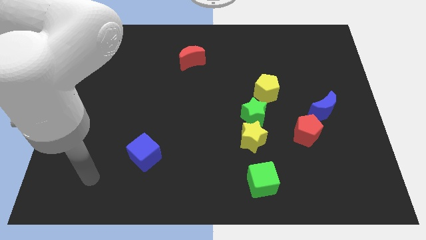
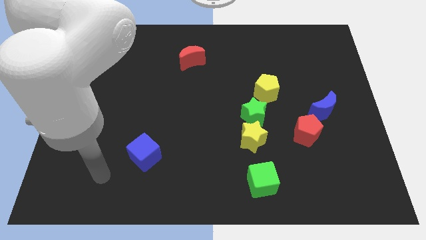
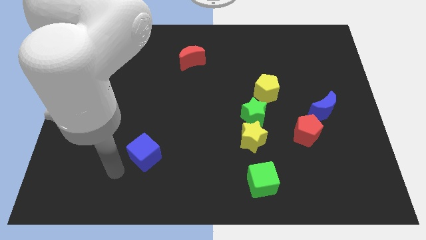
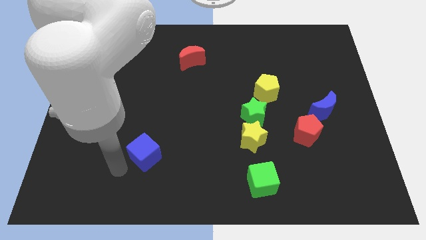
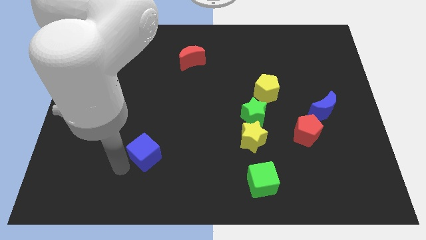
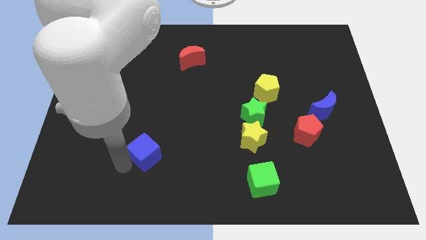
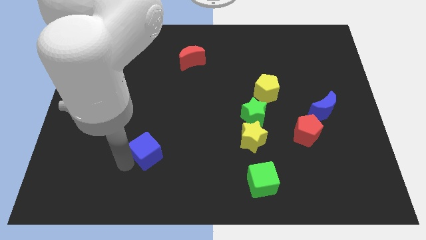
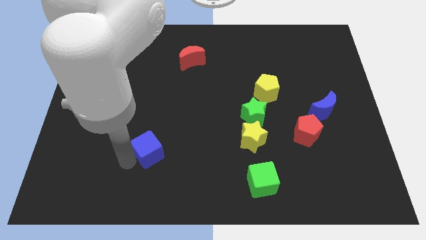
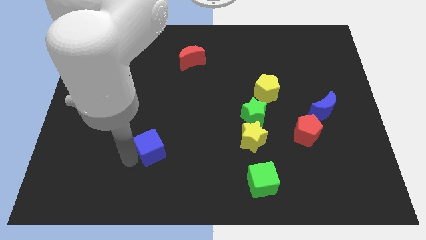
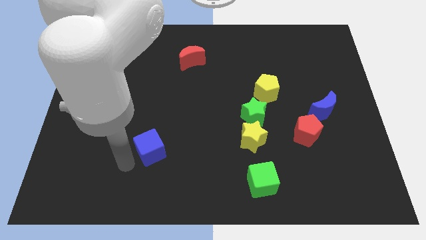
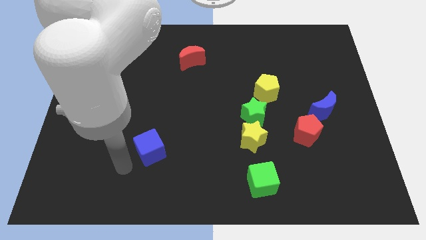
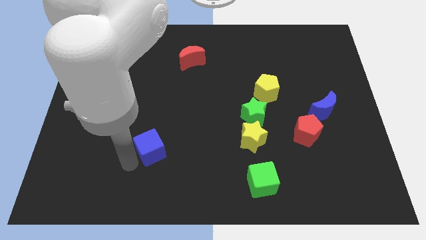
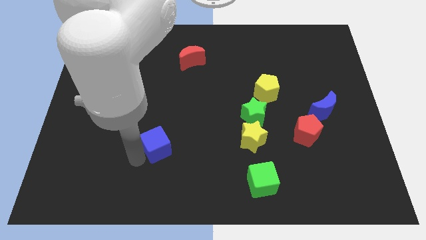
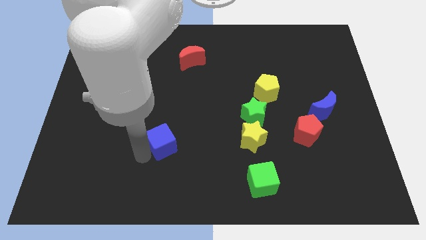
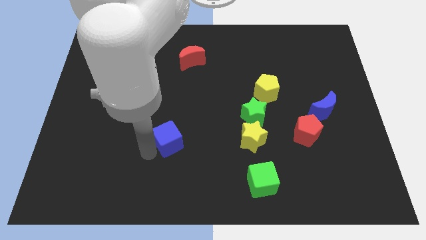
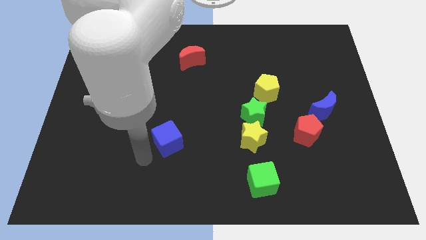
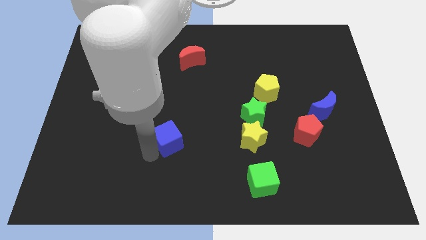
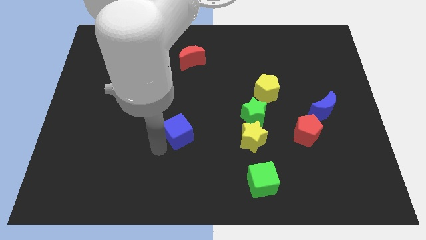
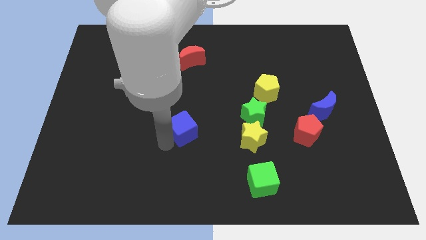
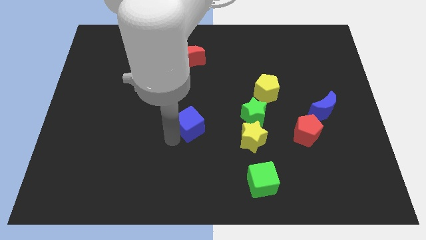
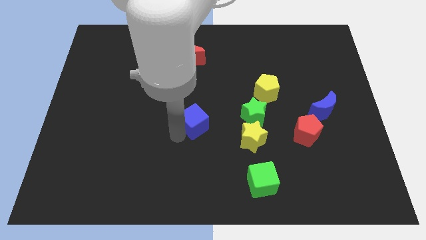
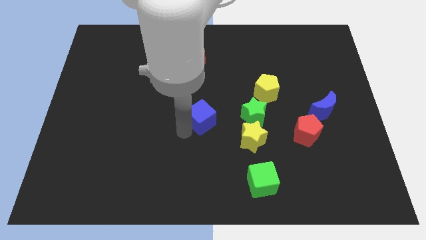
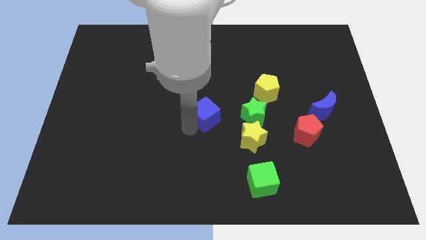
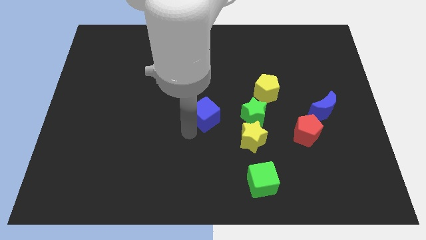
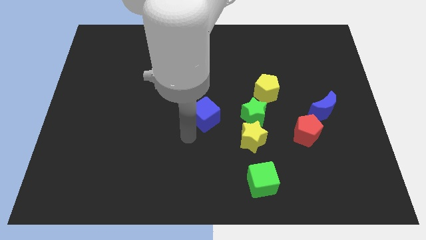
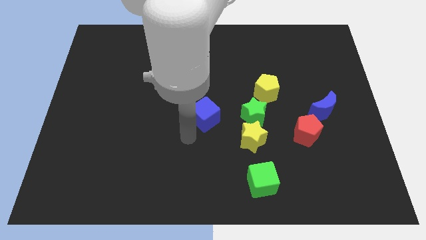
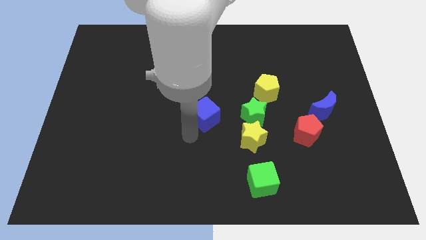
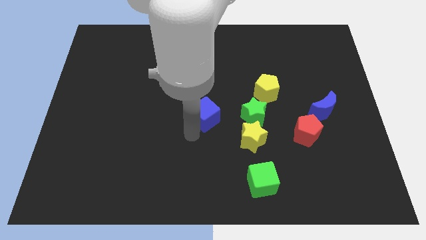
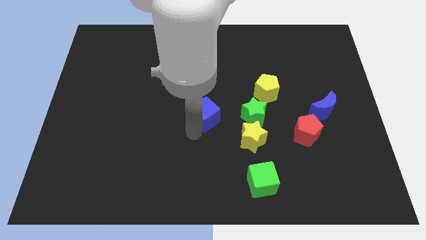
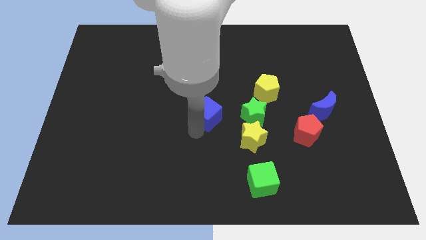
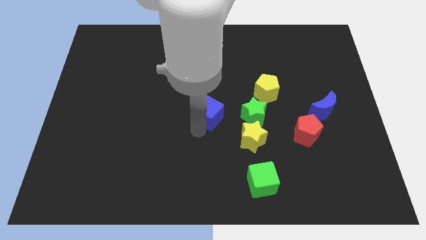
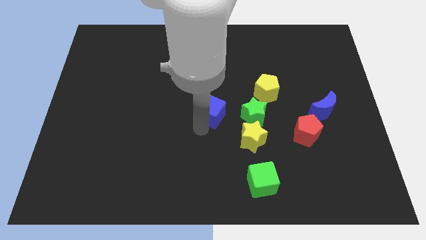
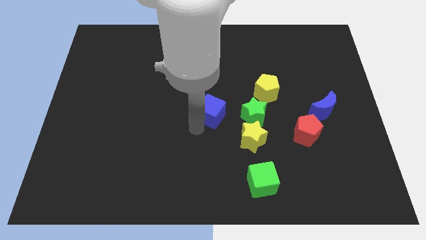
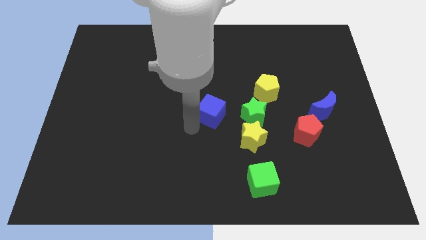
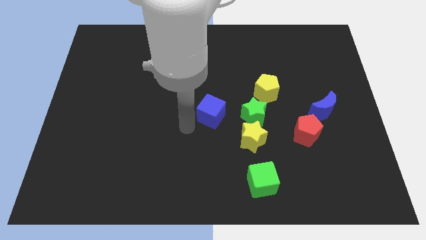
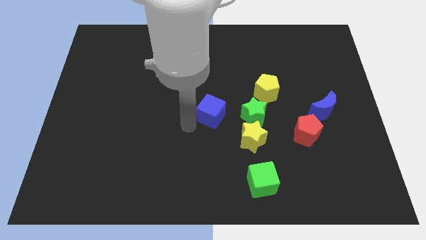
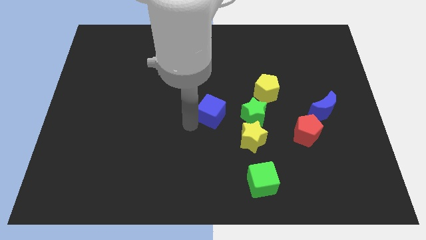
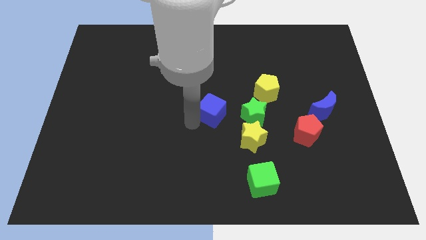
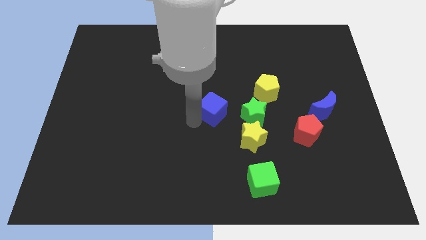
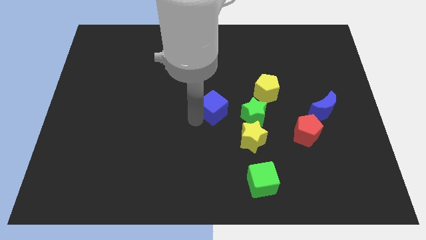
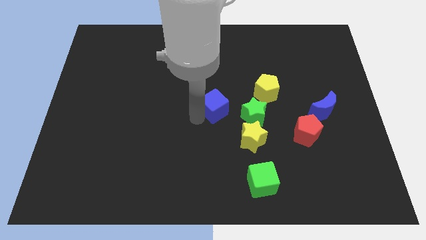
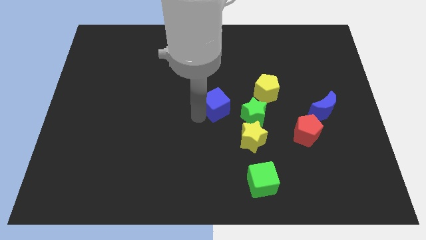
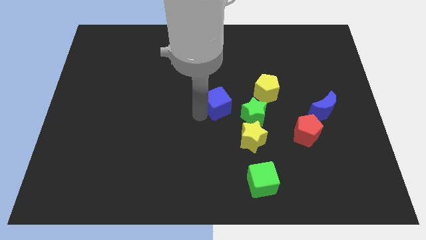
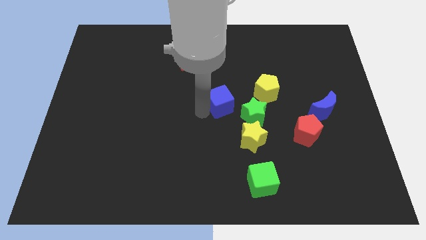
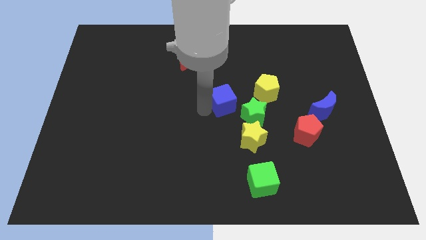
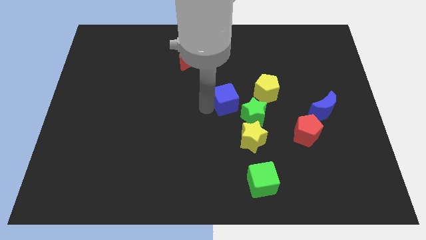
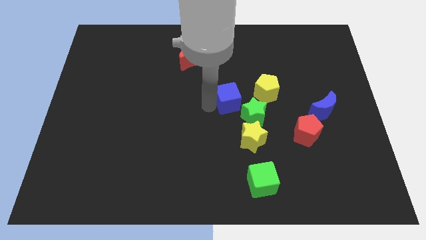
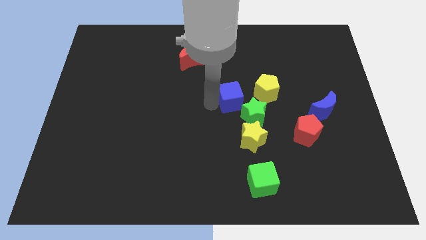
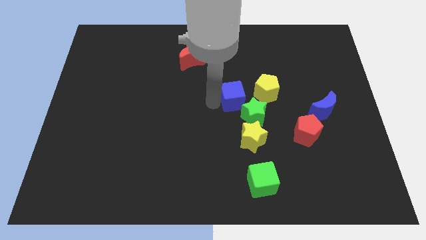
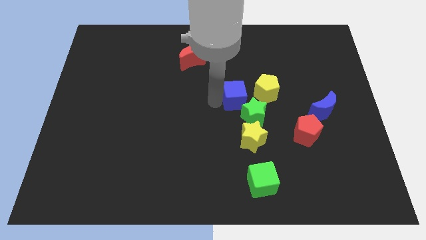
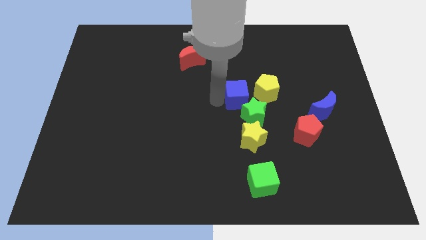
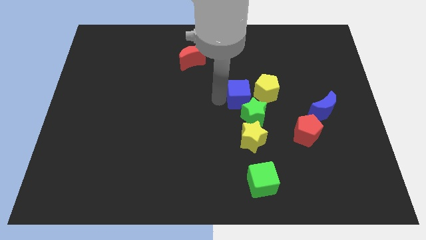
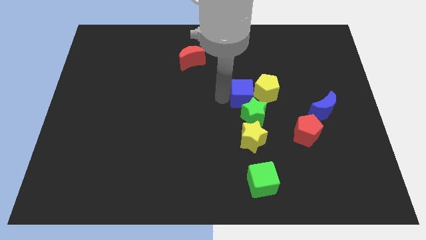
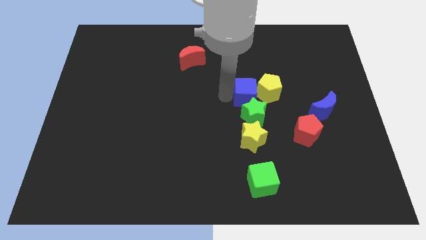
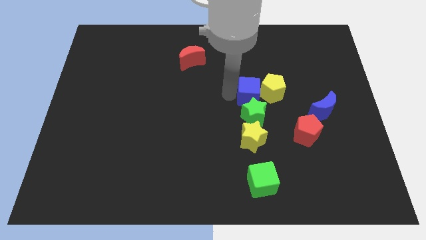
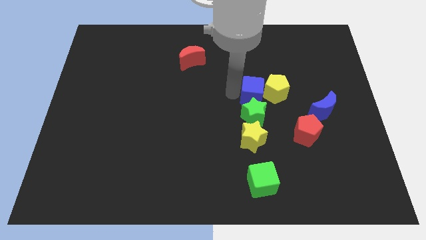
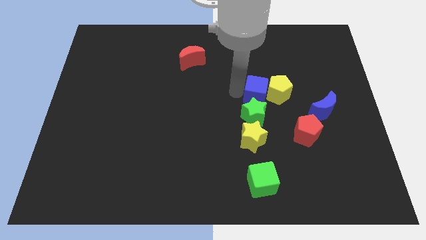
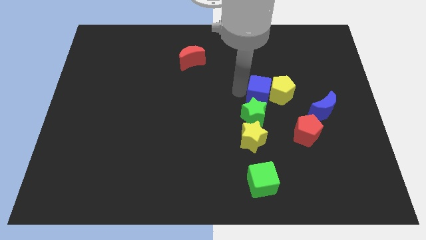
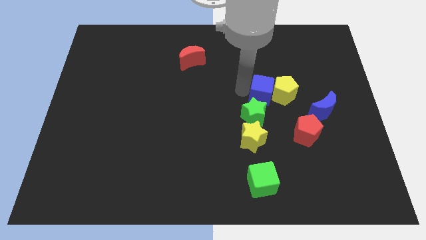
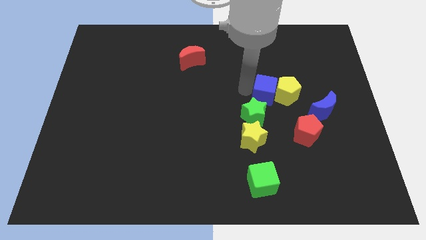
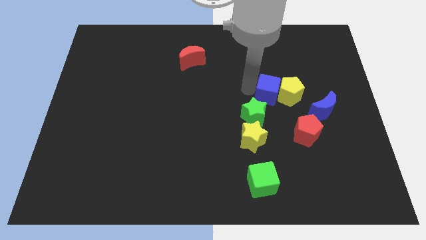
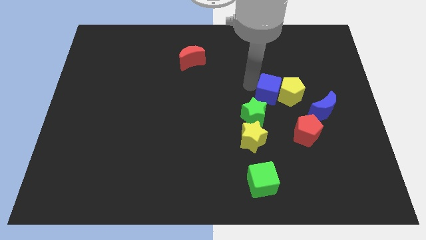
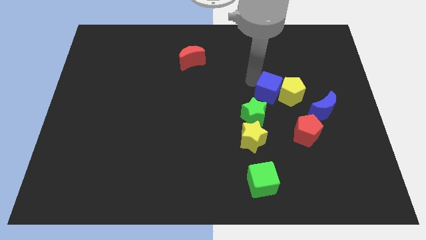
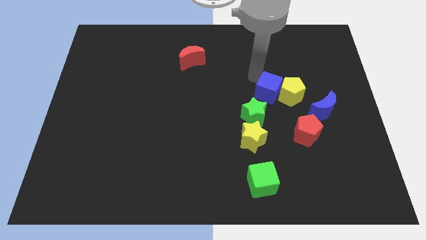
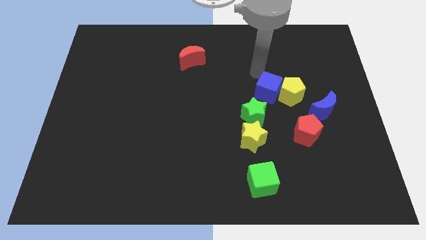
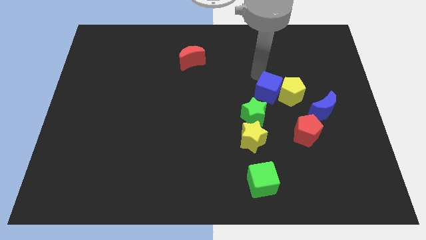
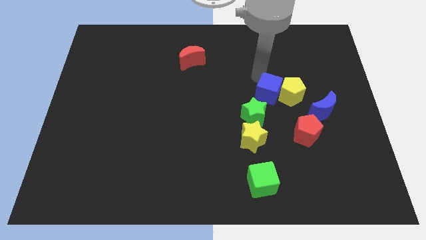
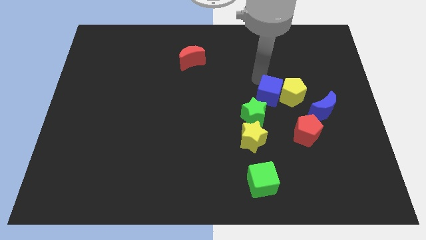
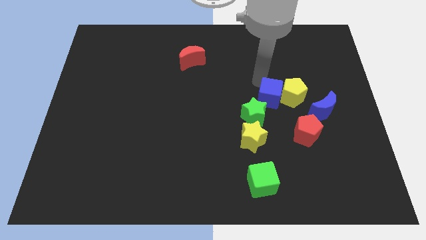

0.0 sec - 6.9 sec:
put the blue cube just left of the blue moon
